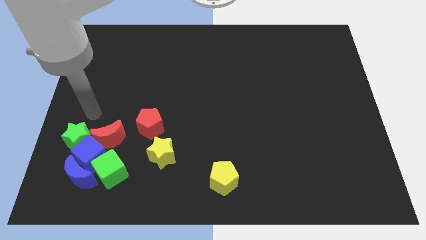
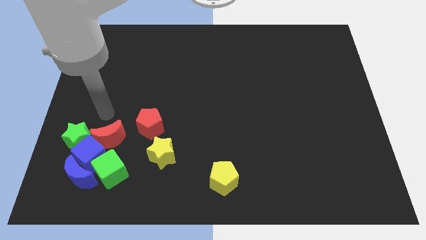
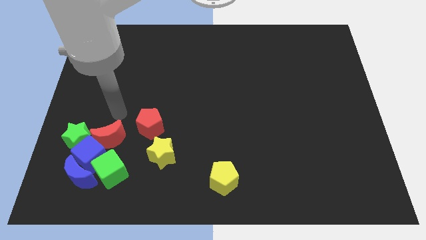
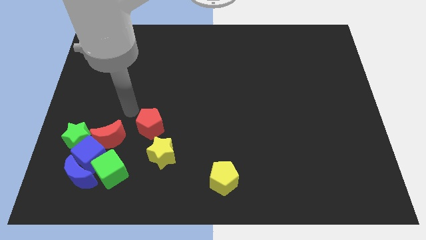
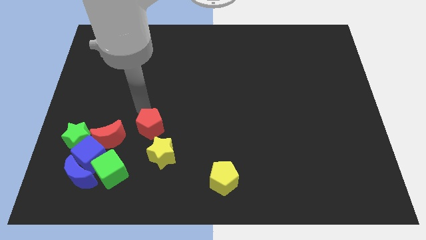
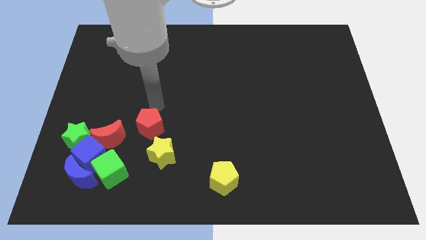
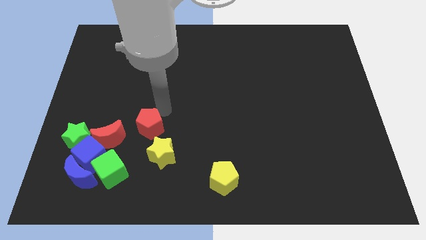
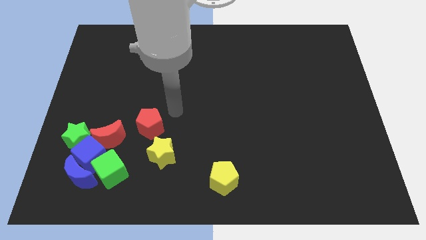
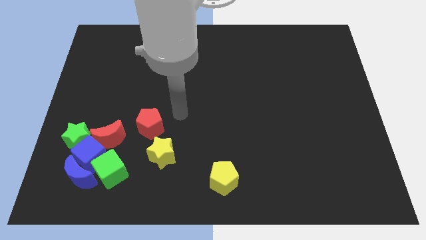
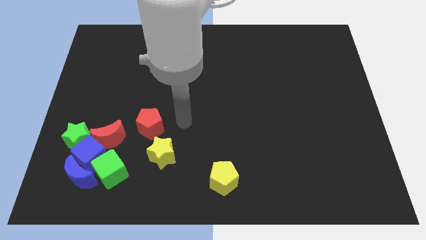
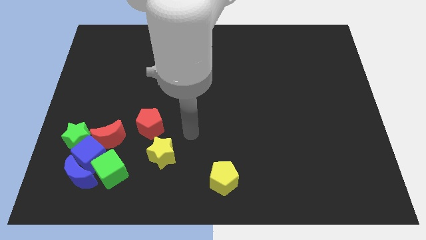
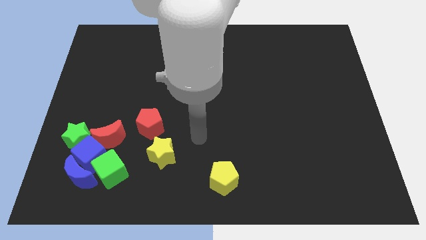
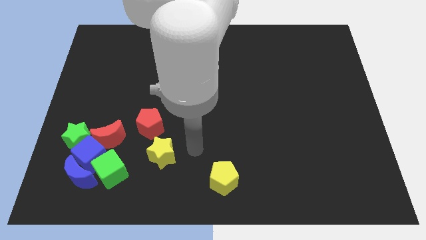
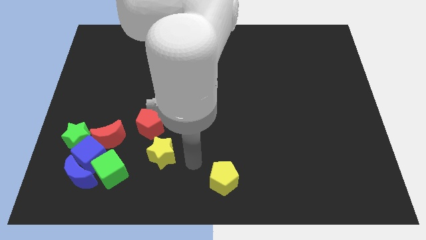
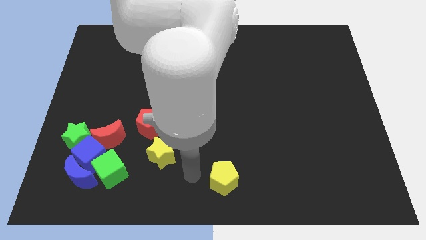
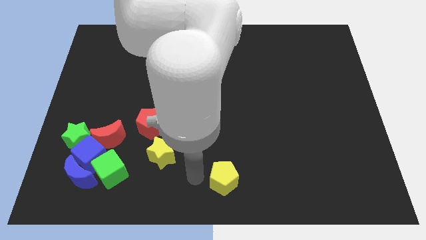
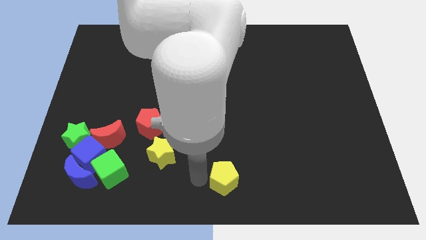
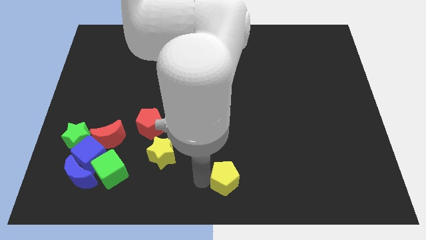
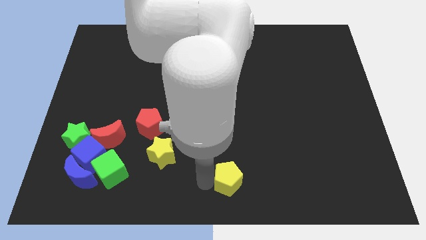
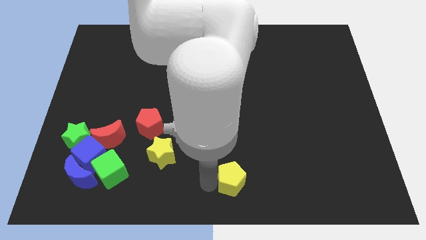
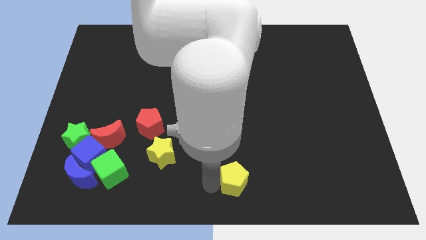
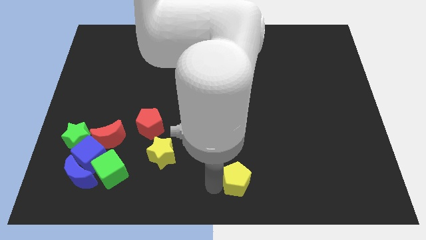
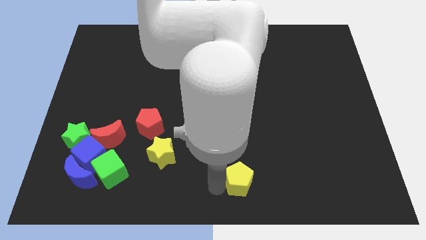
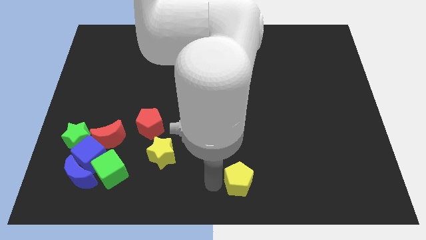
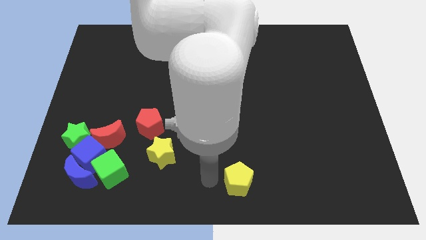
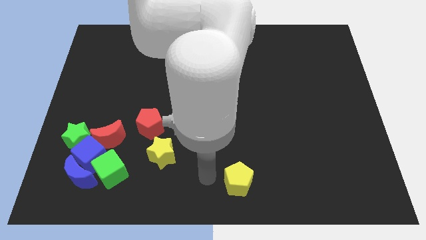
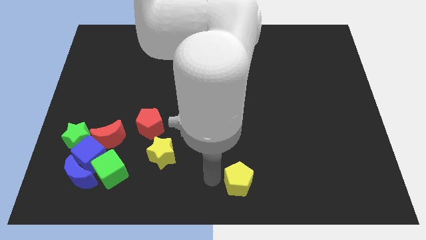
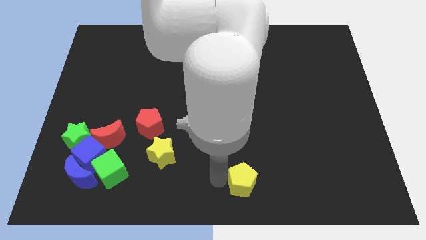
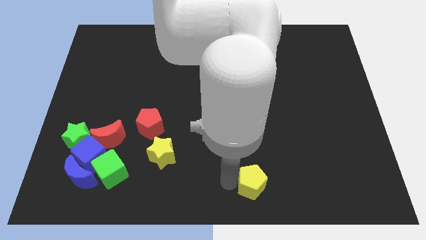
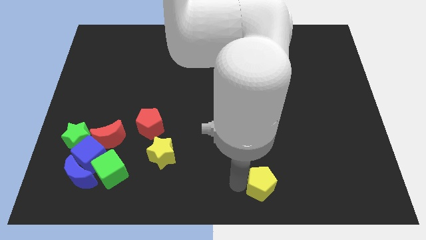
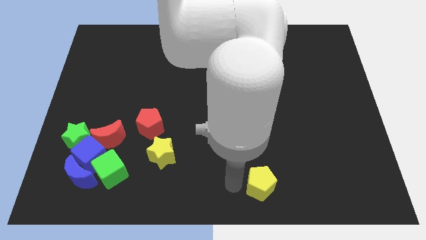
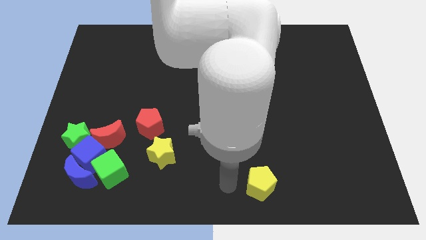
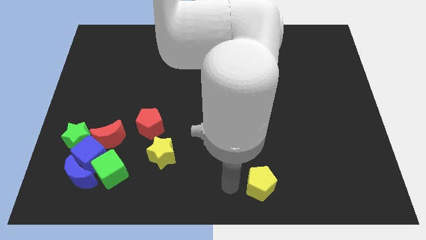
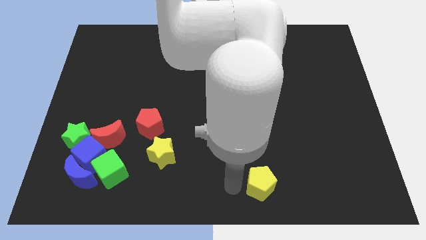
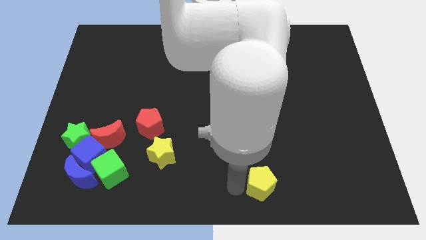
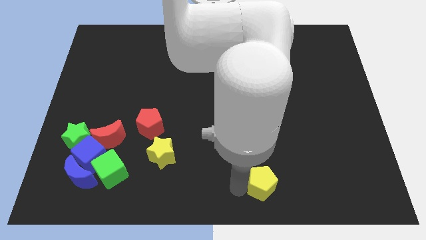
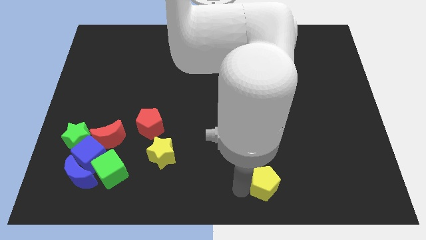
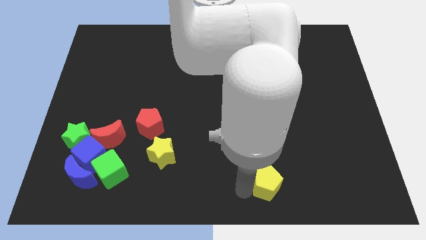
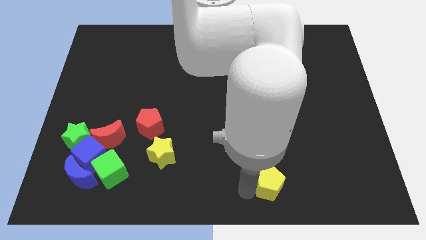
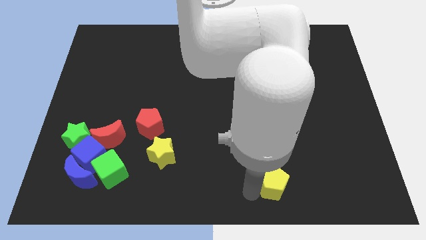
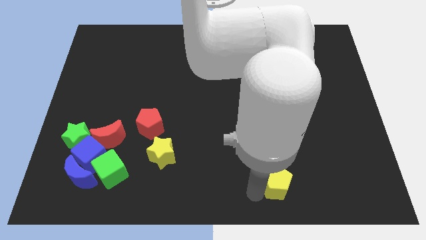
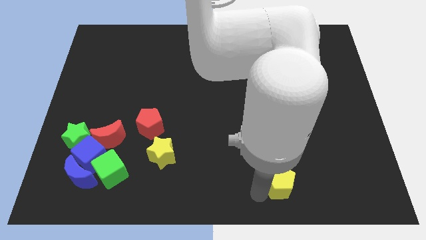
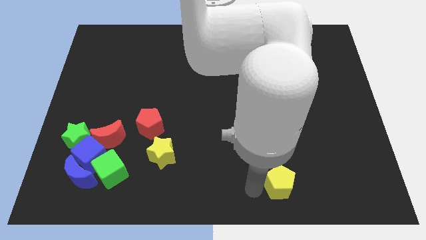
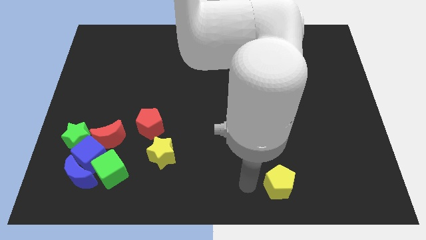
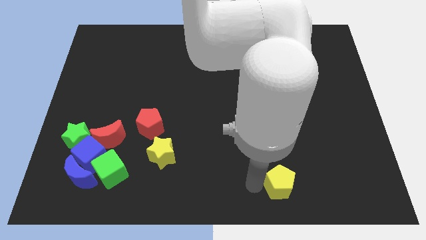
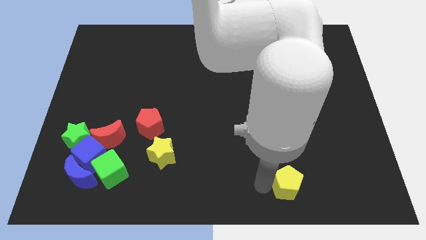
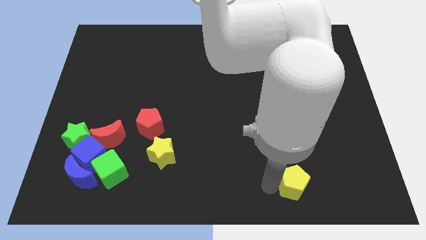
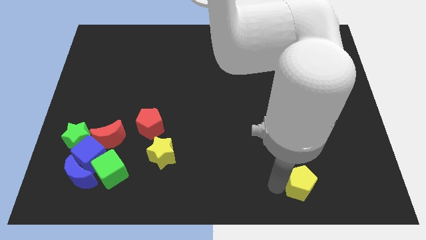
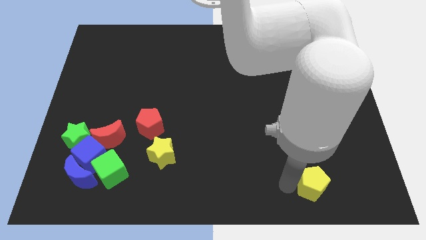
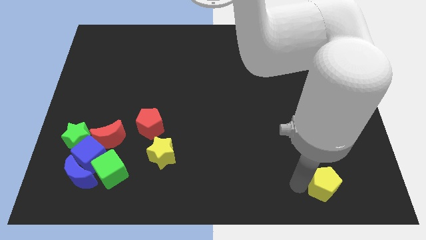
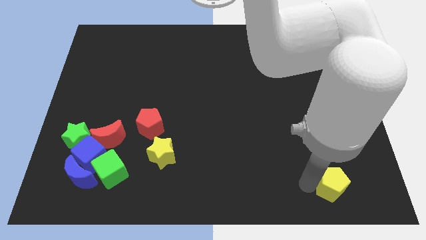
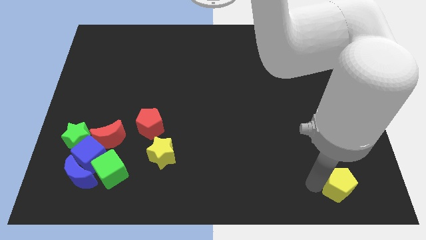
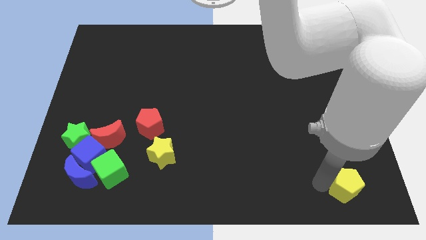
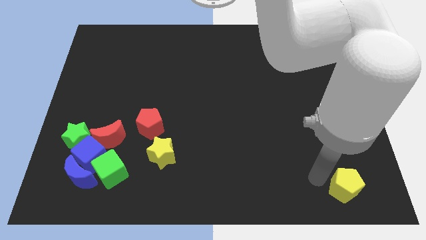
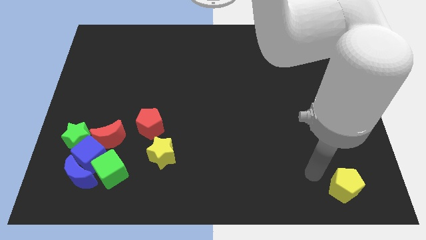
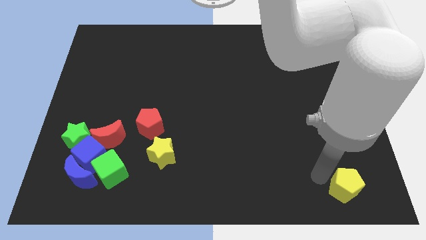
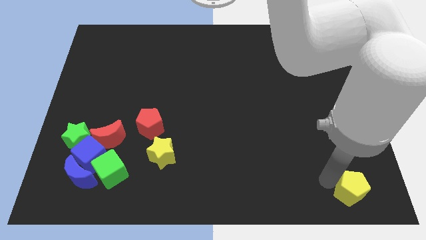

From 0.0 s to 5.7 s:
slide the yellow pentagon to the bottom right corner

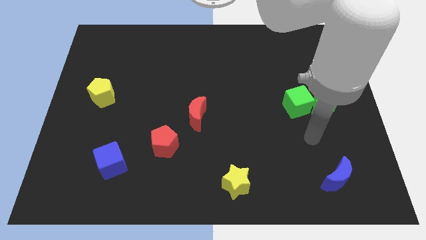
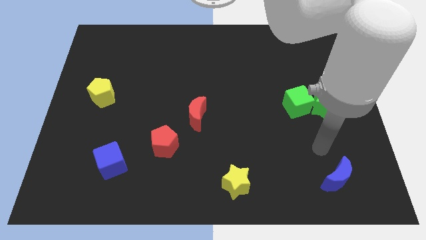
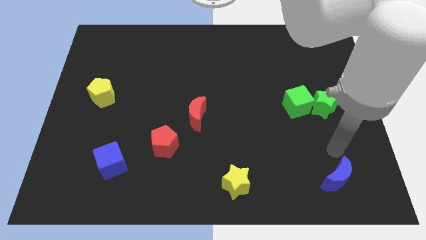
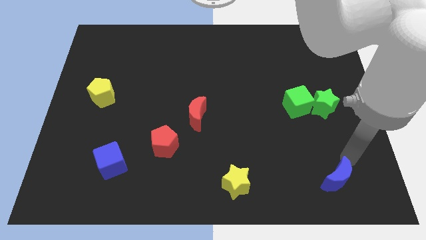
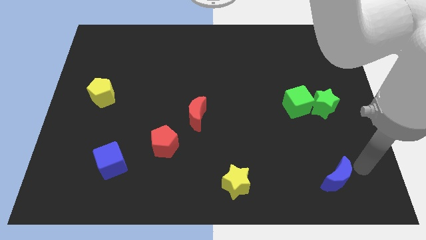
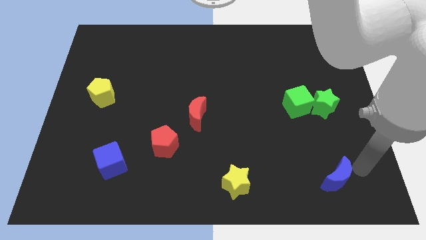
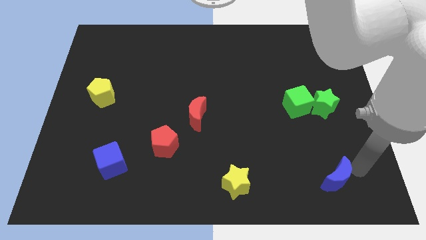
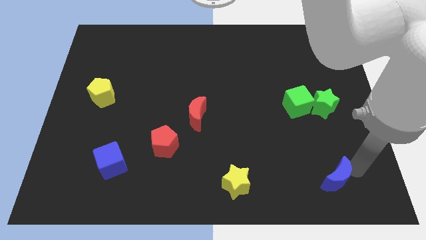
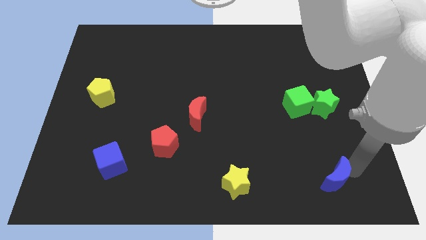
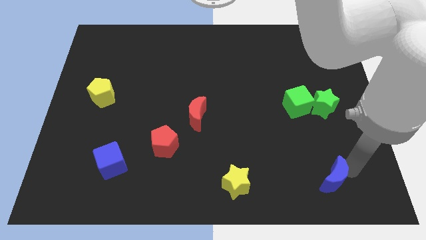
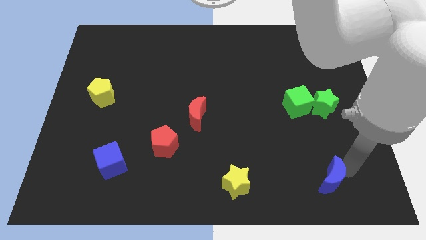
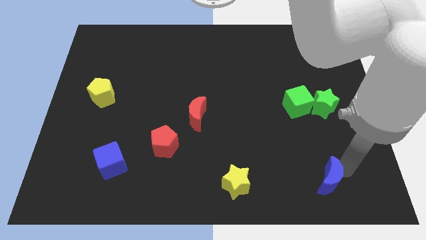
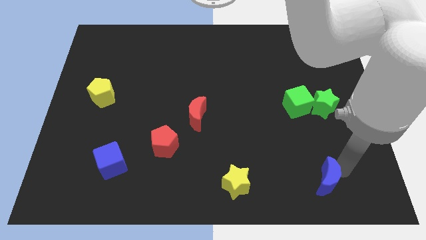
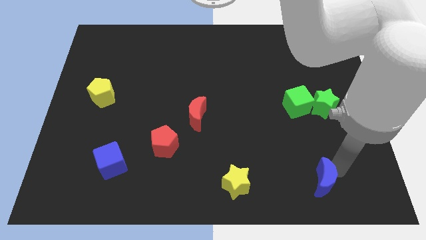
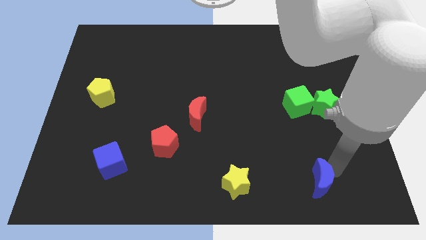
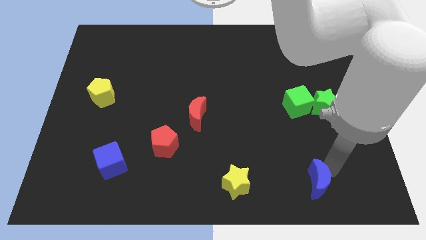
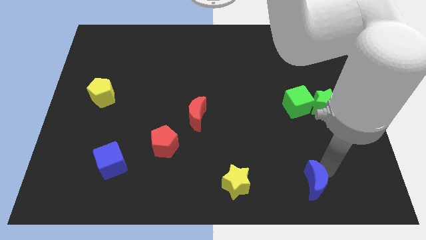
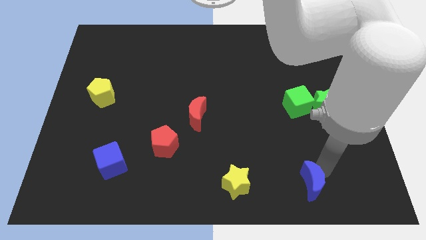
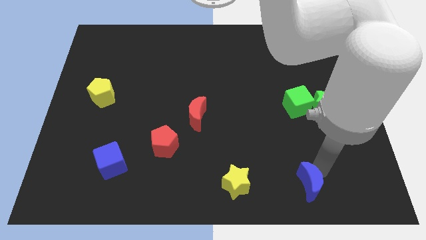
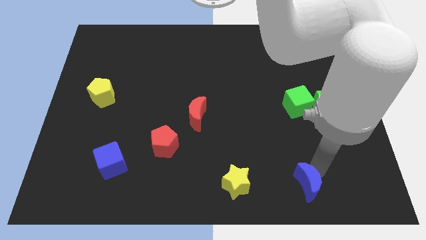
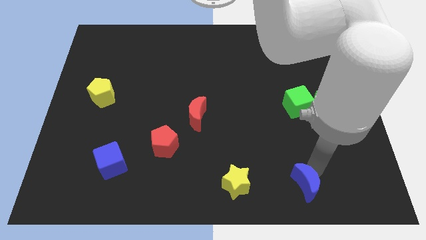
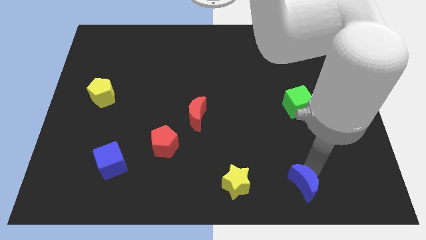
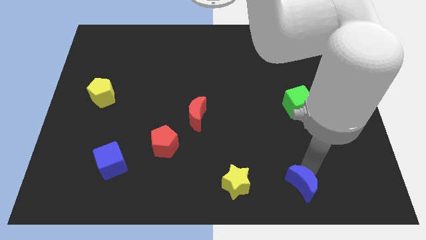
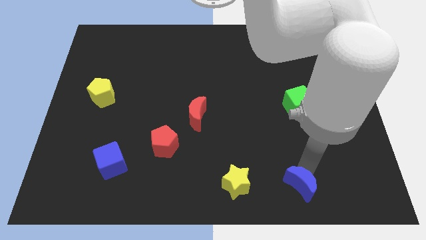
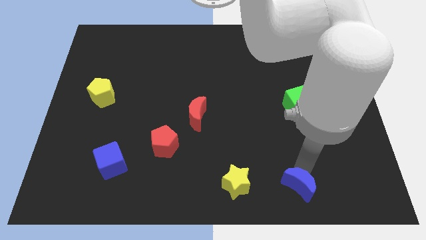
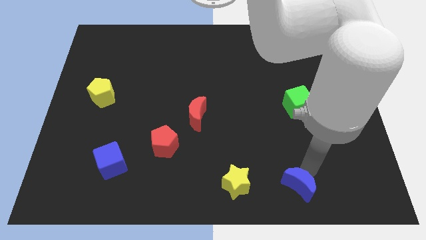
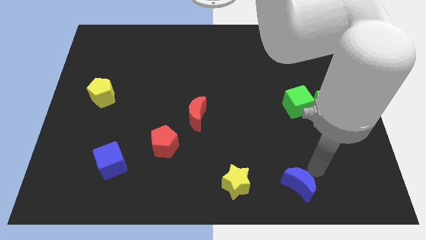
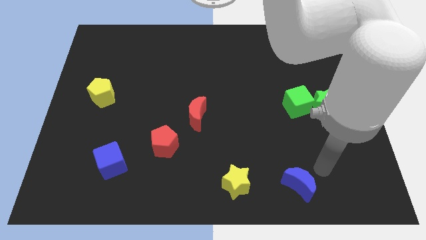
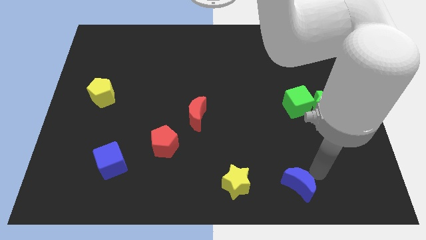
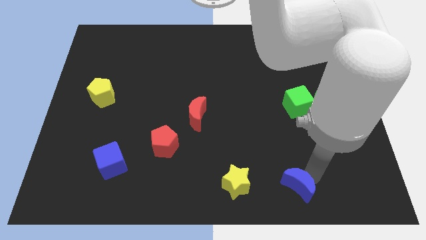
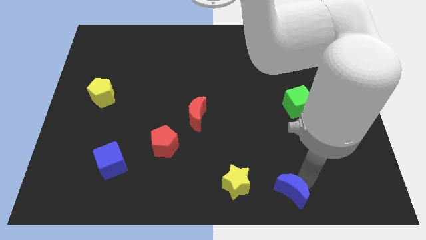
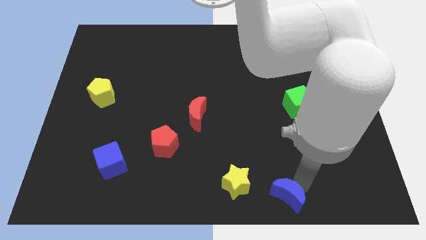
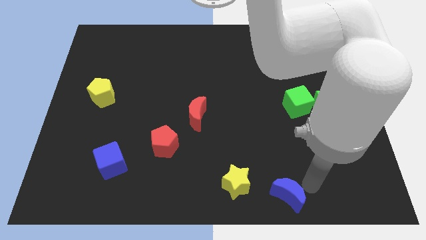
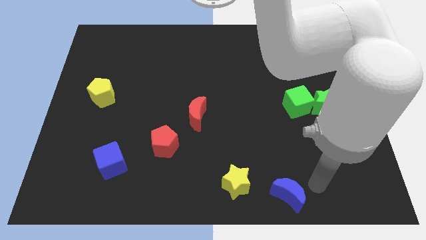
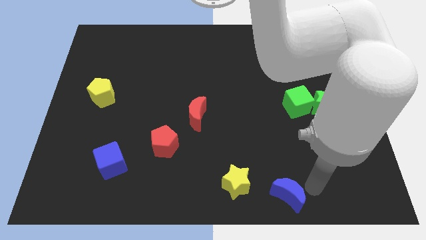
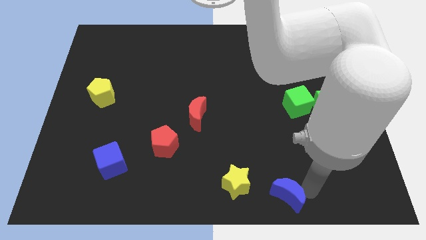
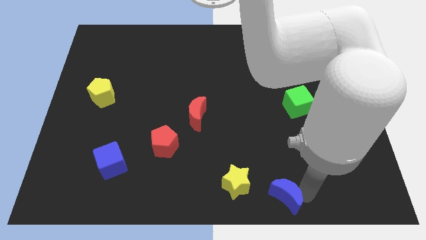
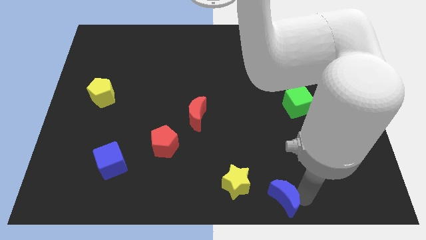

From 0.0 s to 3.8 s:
push the blue moon to the bottom
